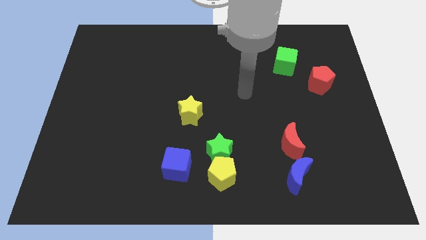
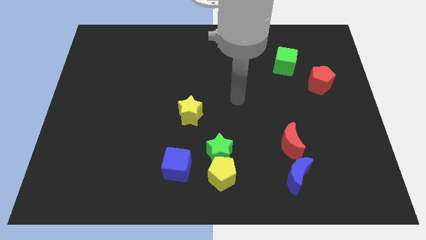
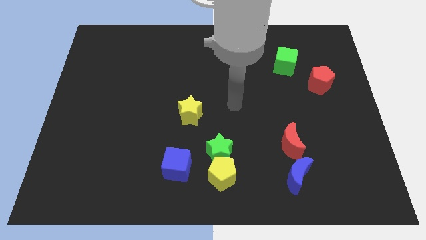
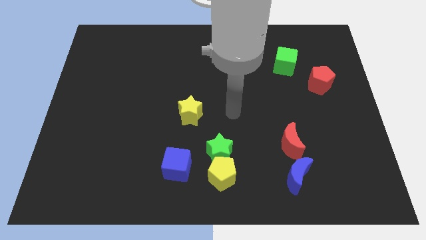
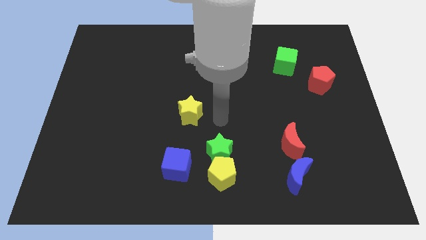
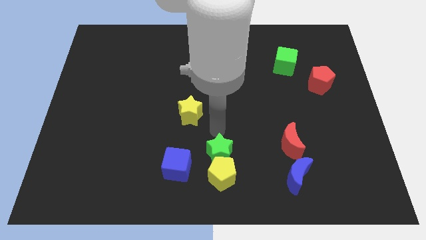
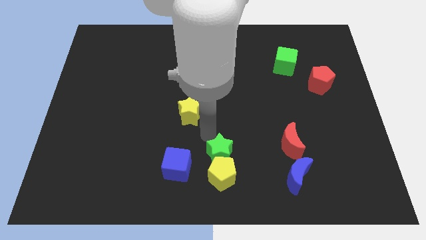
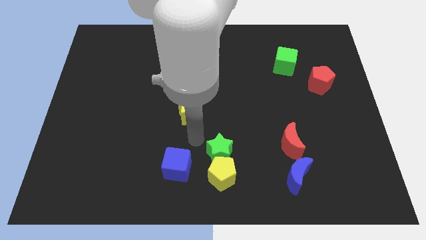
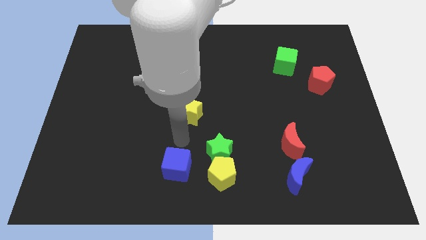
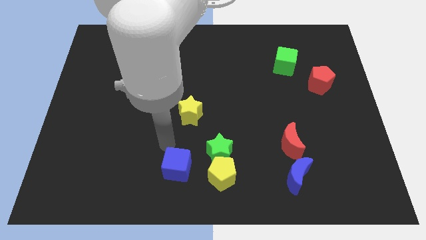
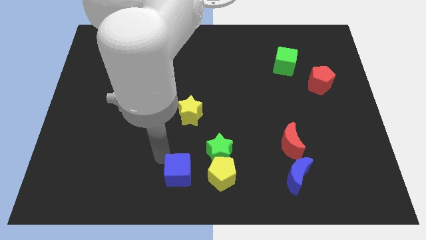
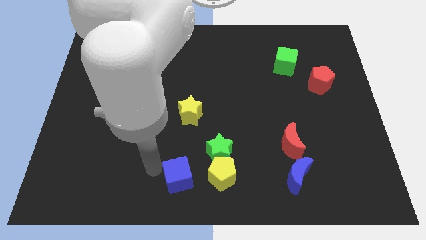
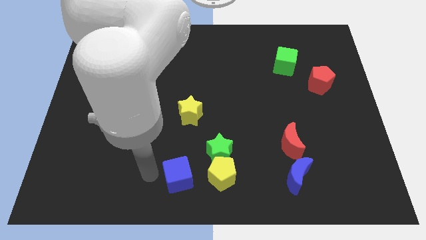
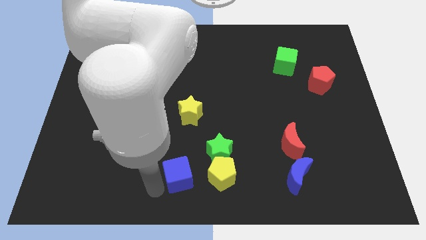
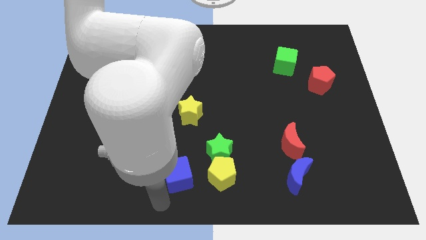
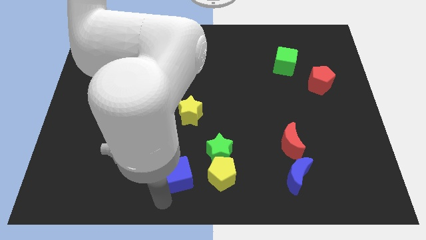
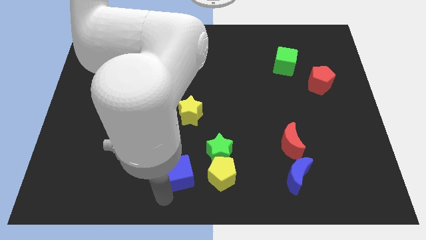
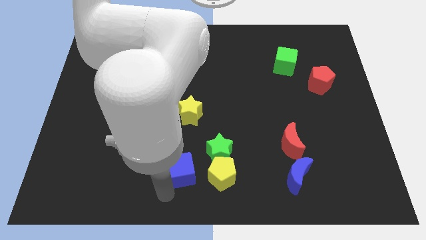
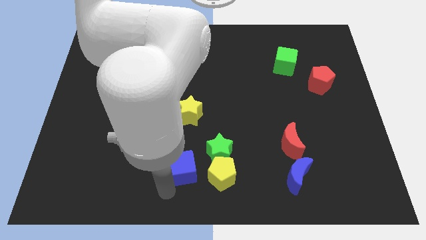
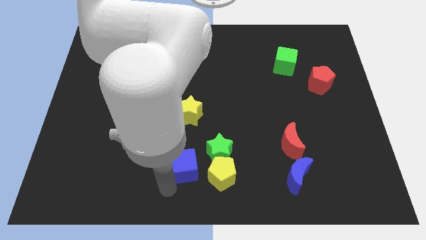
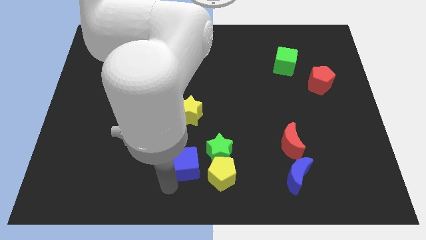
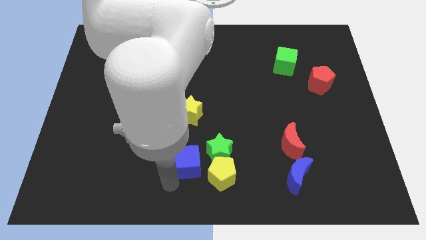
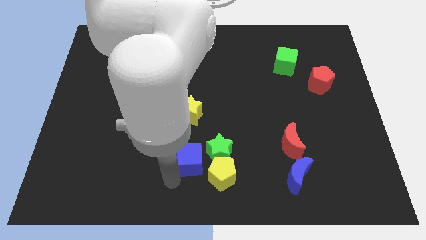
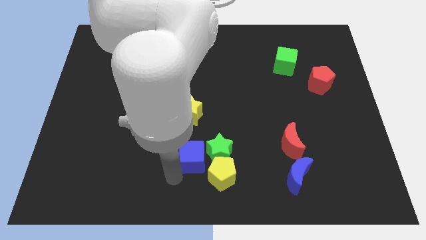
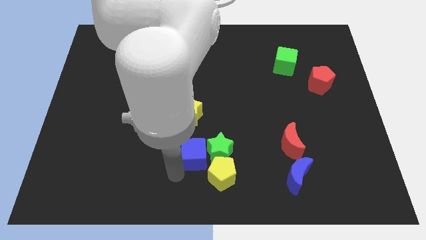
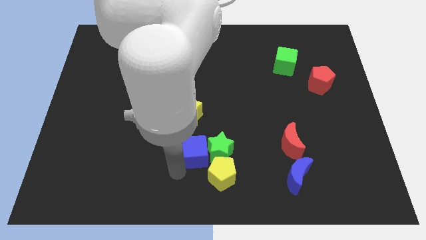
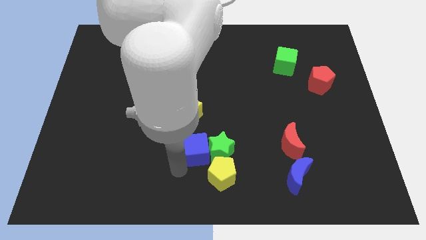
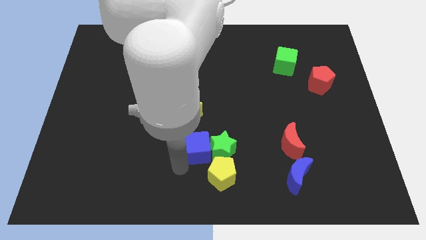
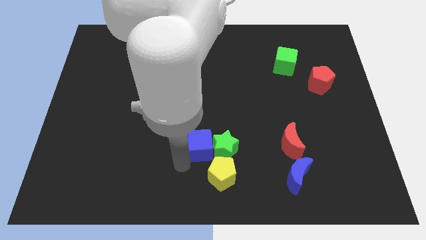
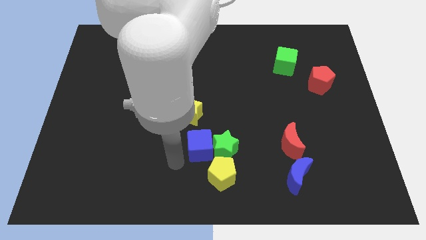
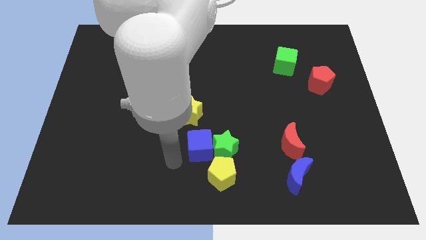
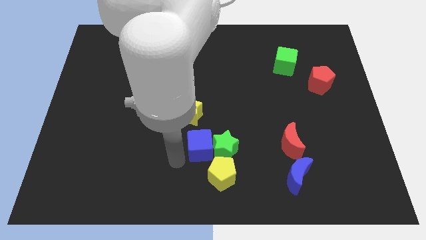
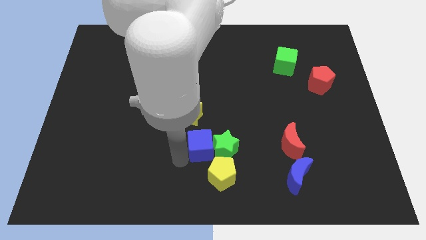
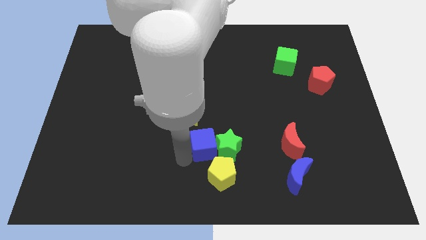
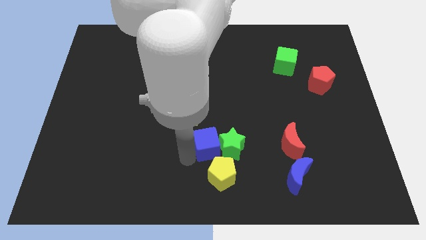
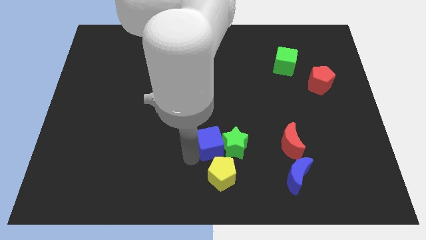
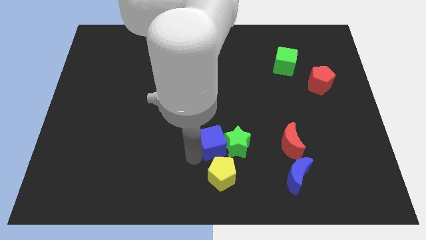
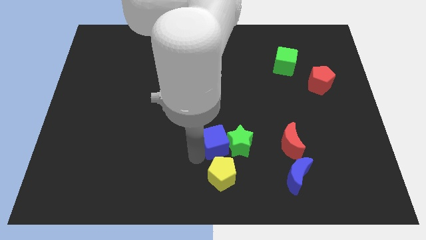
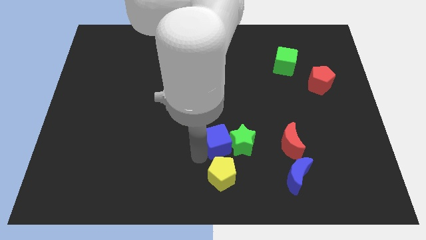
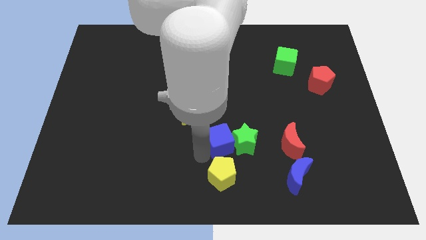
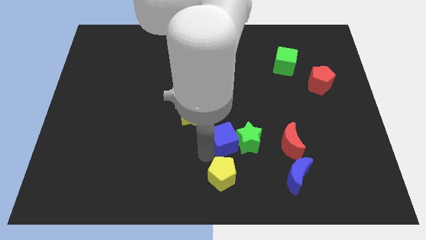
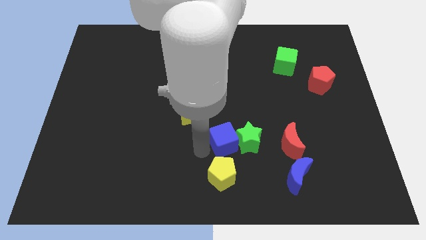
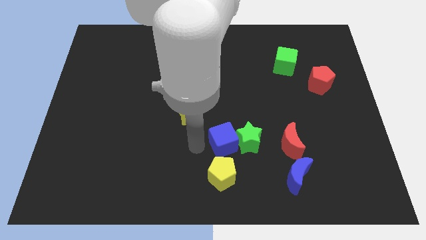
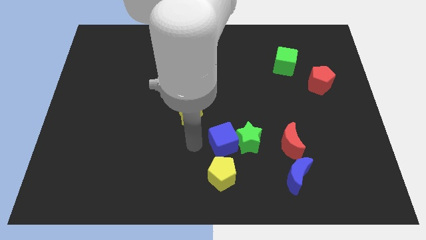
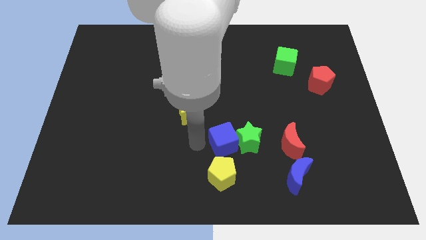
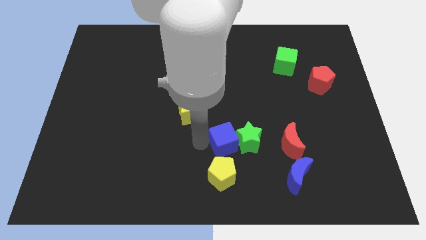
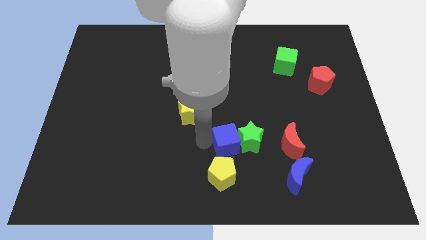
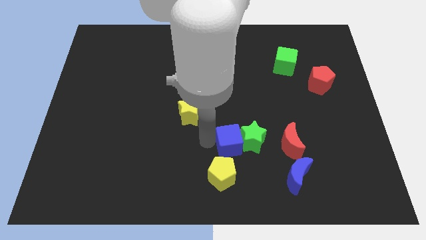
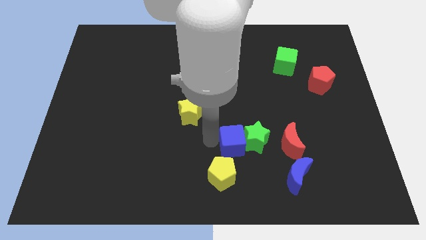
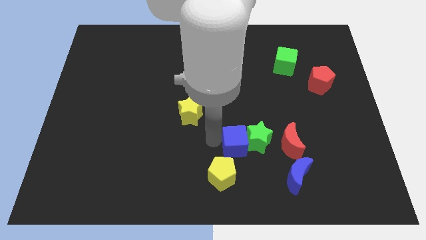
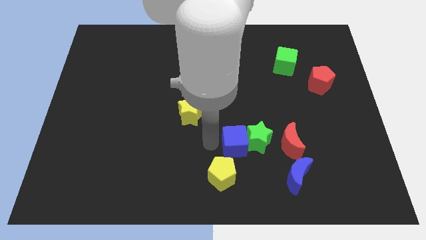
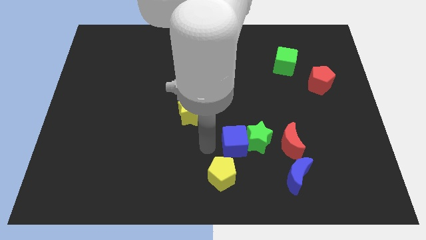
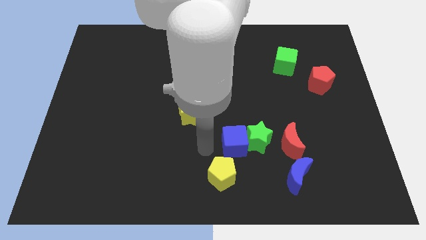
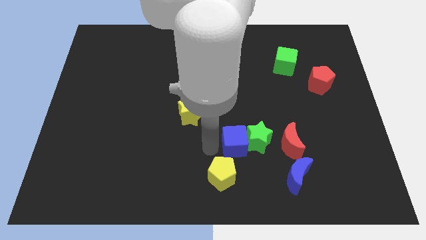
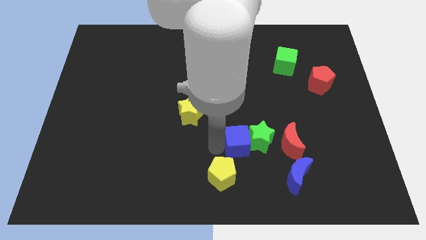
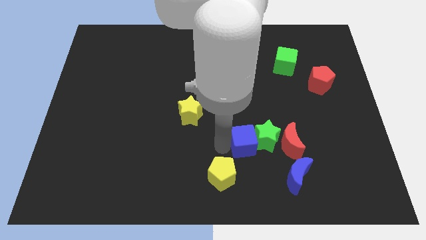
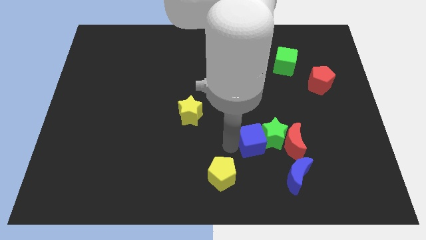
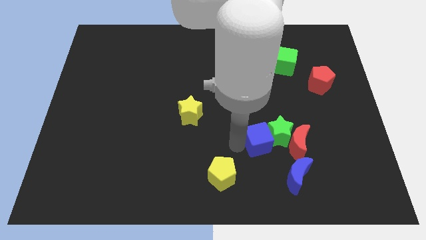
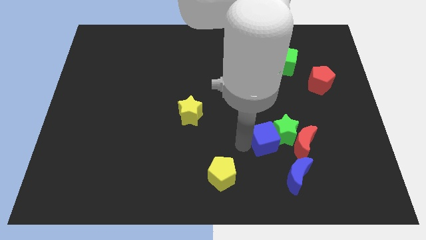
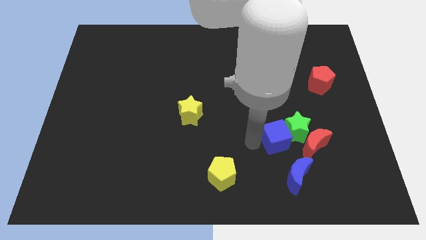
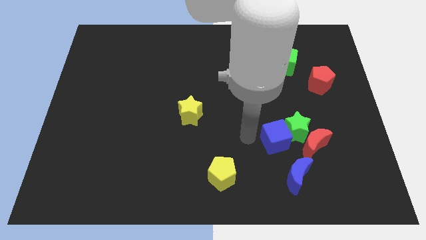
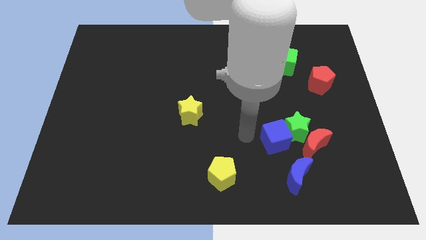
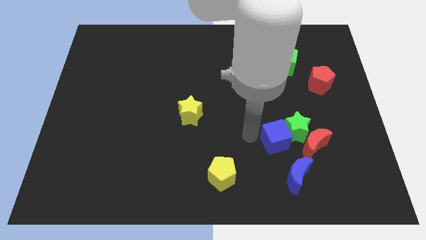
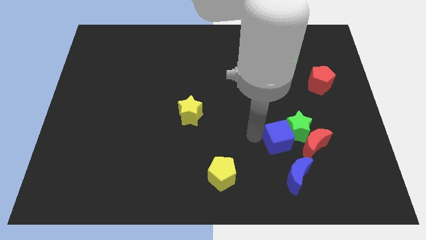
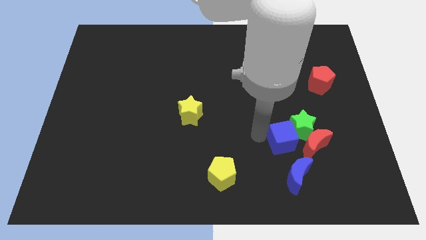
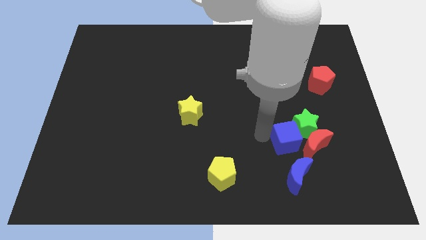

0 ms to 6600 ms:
slide the blue cube next to the red moon

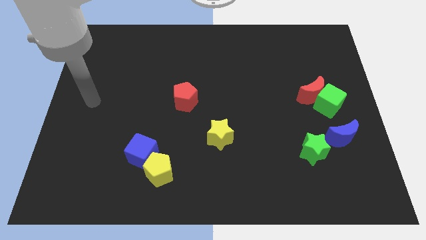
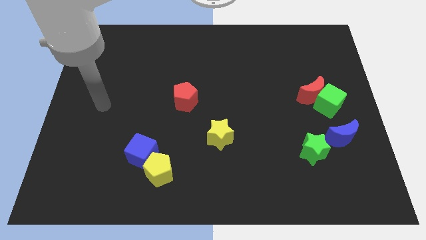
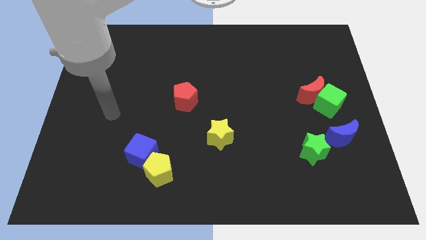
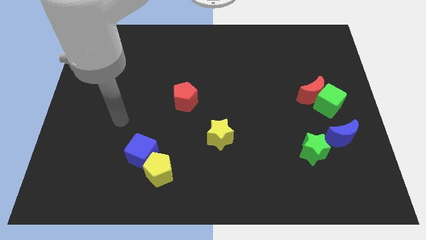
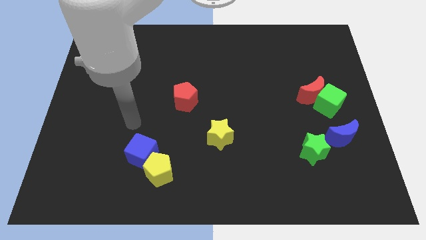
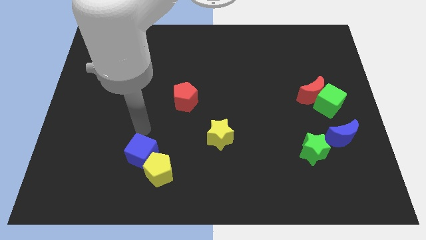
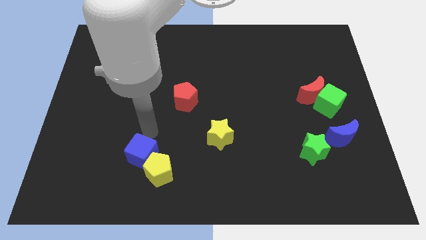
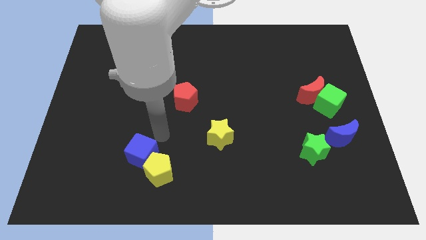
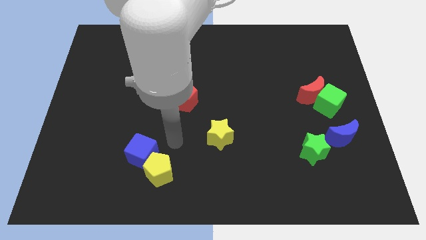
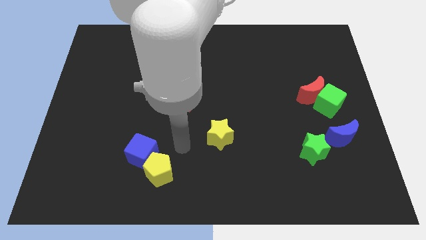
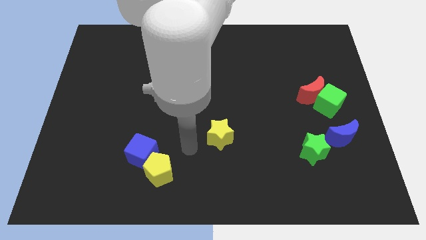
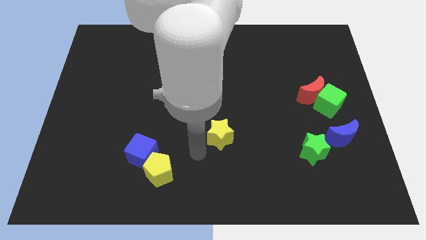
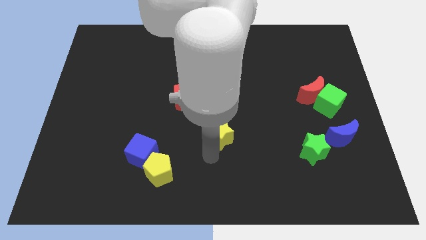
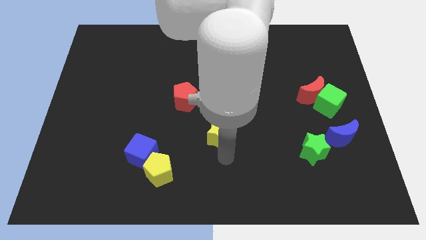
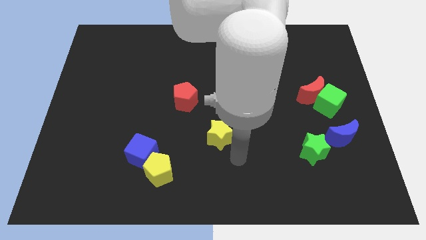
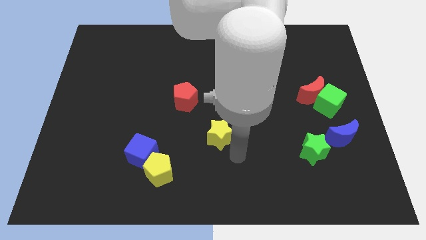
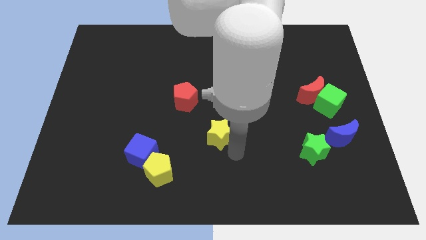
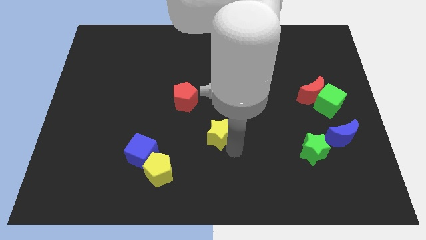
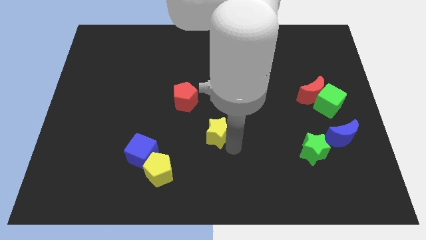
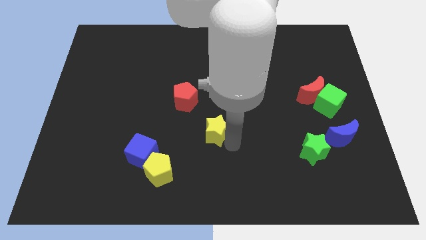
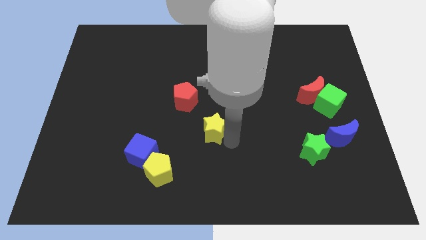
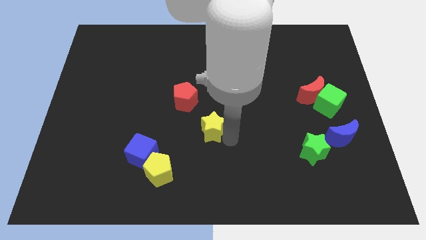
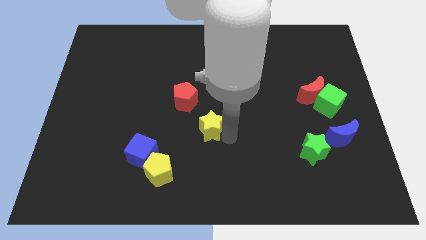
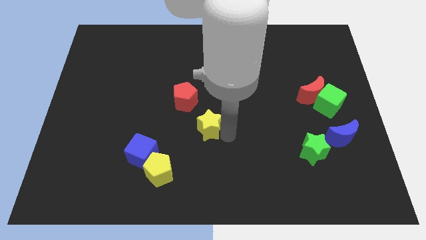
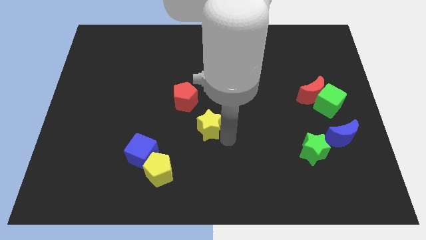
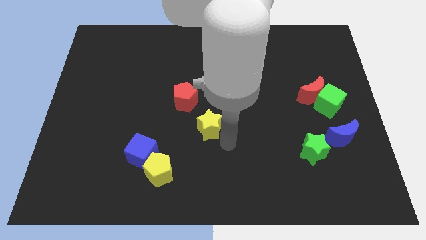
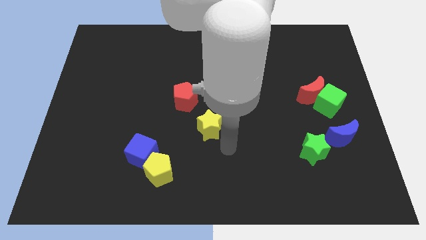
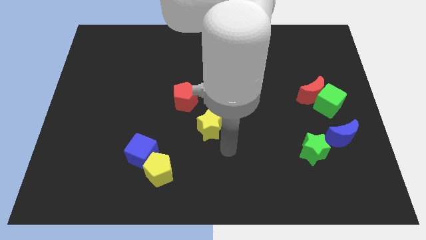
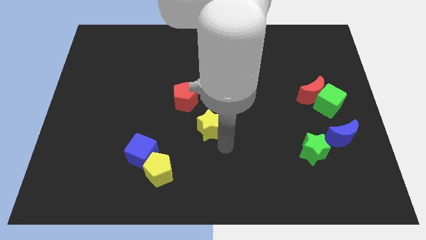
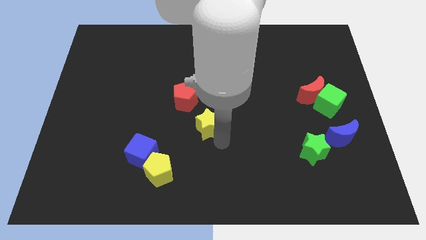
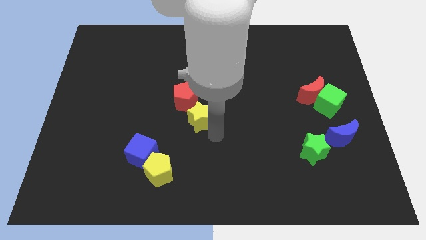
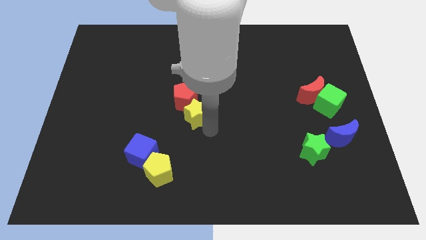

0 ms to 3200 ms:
move the yellow star towards the red pentagon
